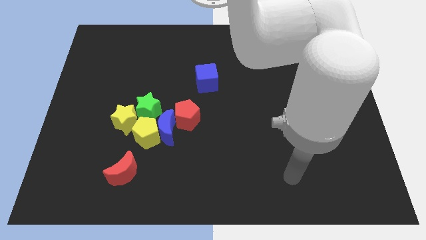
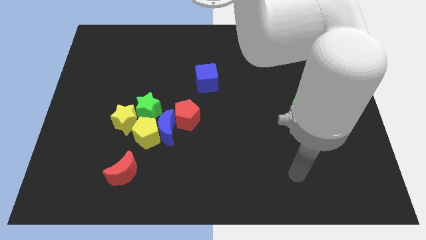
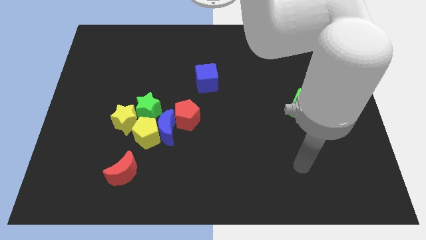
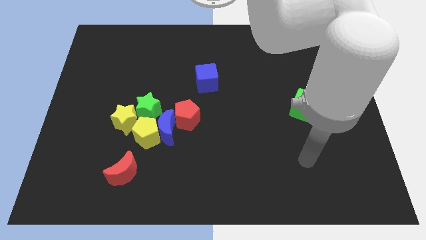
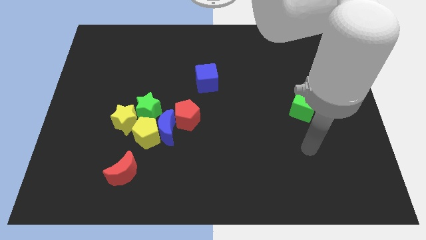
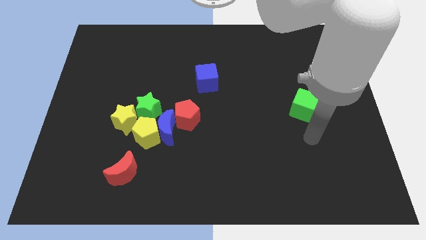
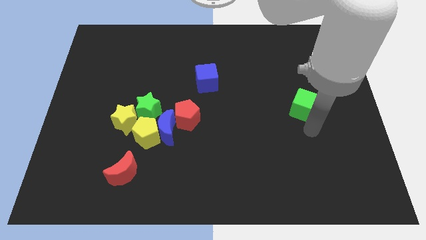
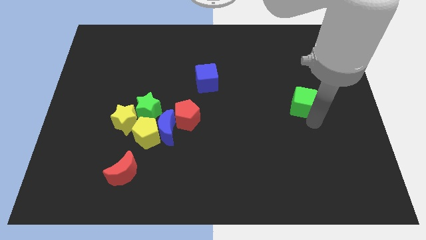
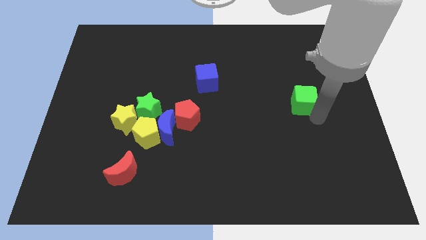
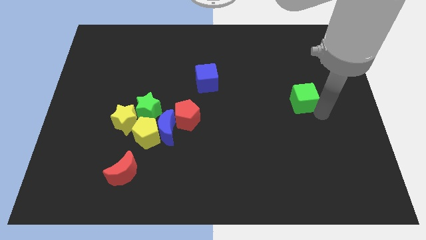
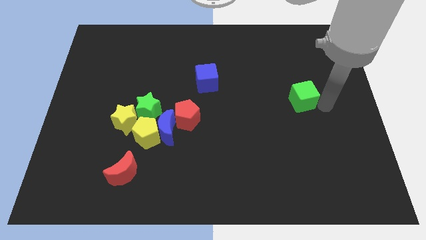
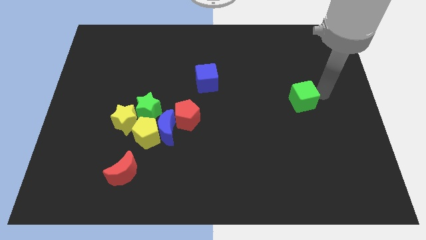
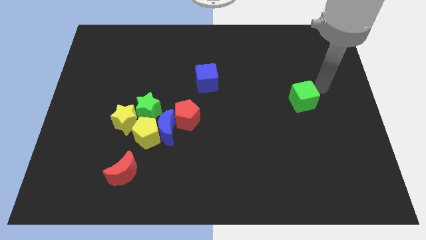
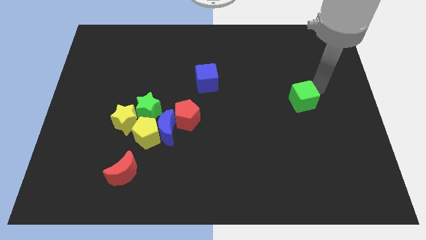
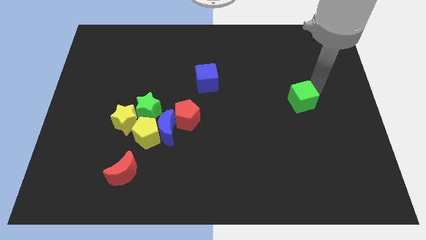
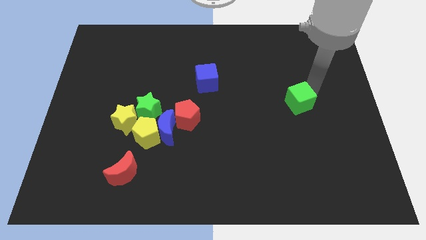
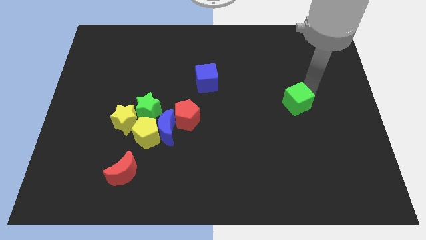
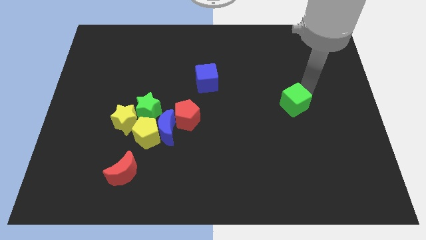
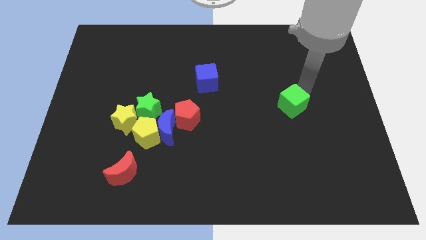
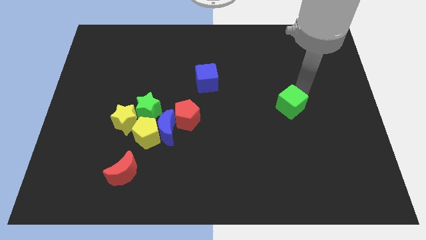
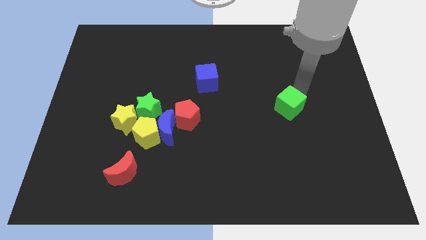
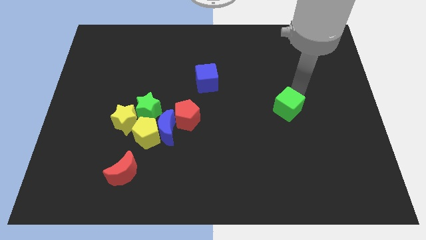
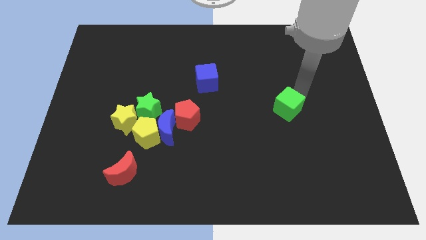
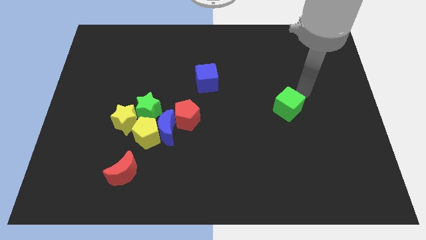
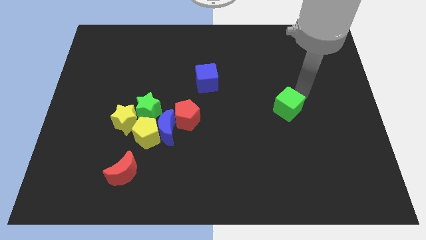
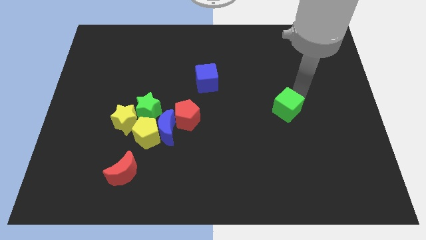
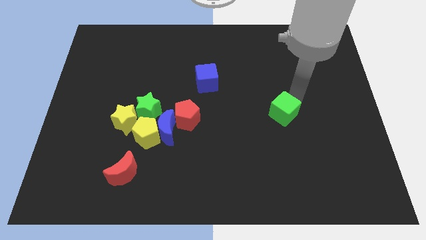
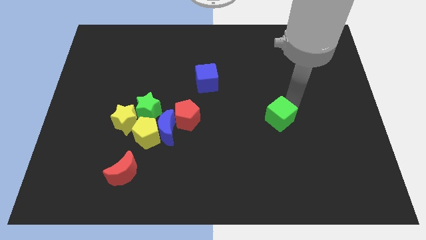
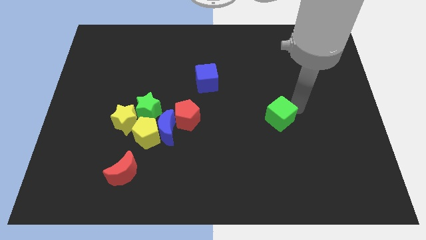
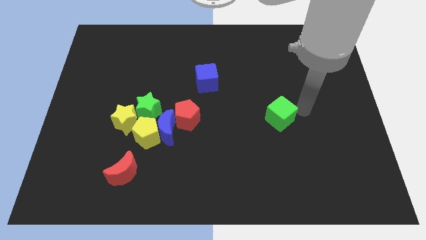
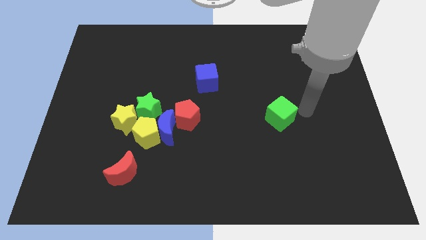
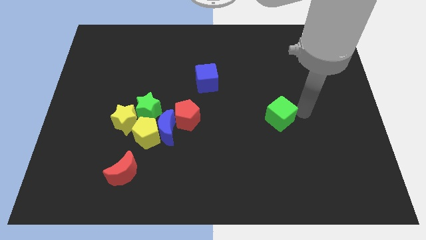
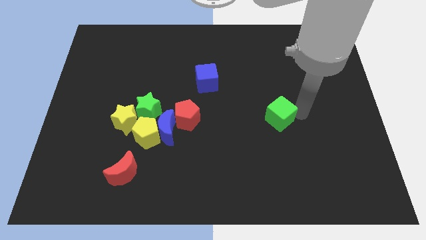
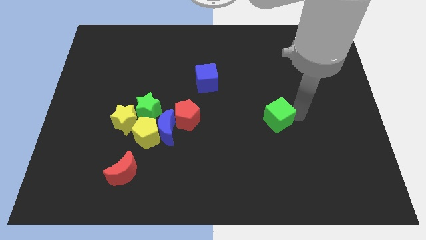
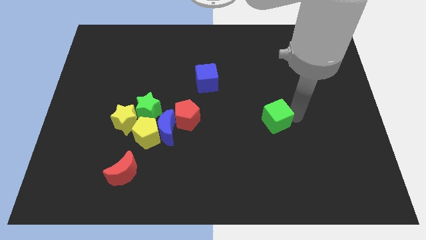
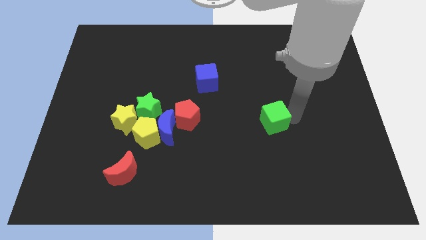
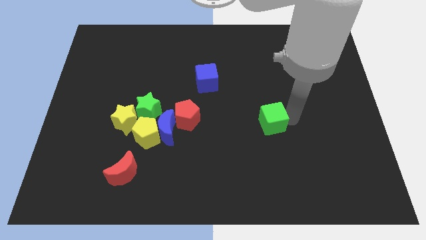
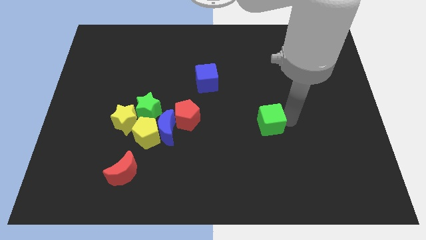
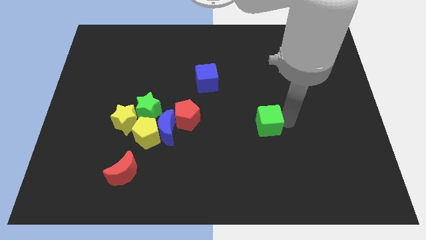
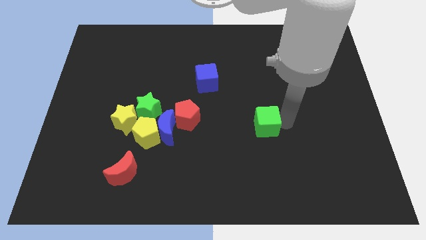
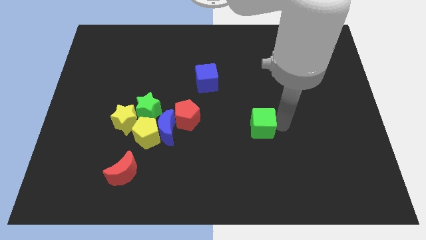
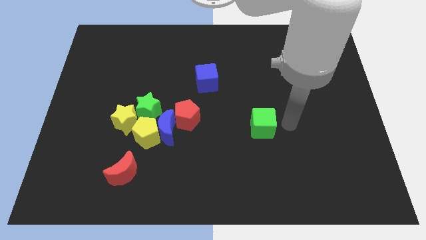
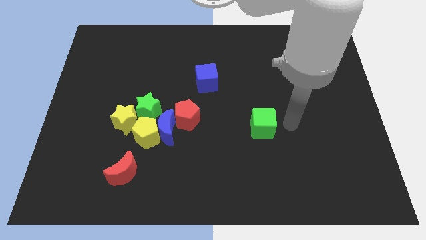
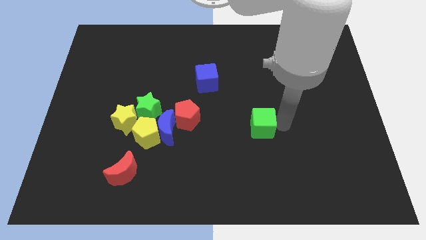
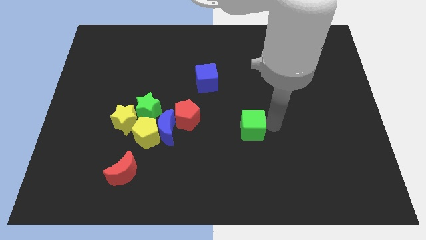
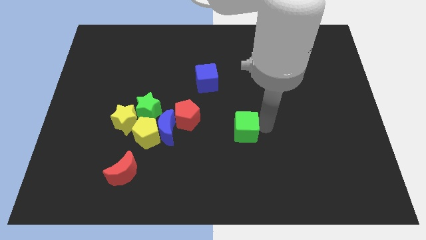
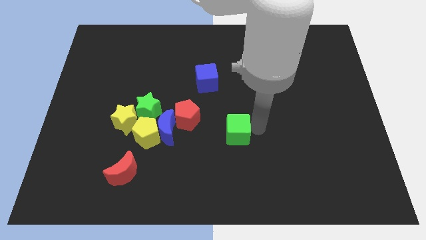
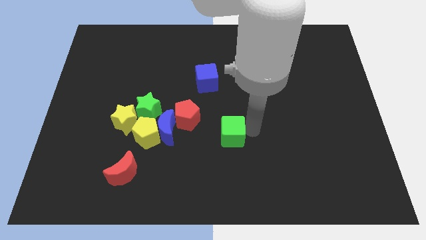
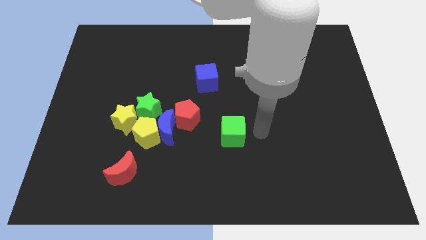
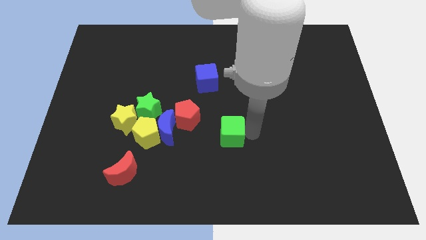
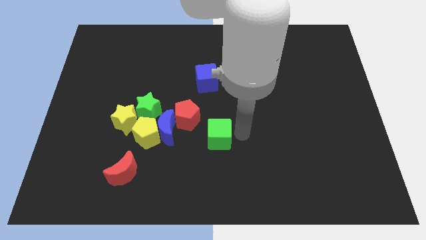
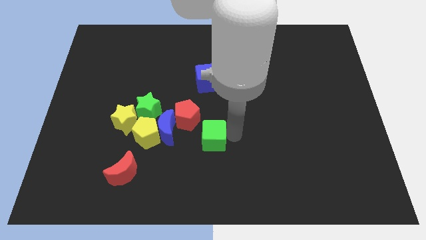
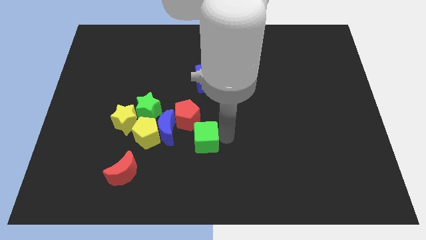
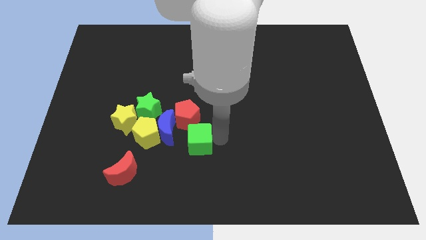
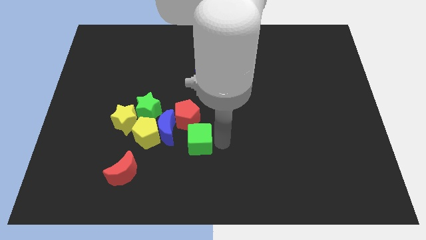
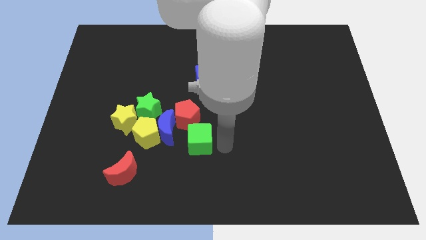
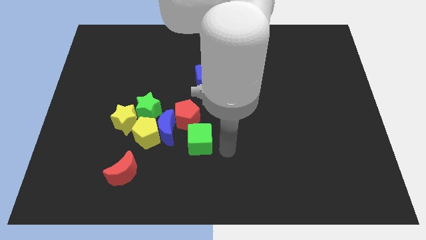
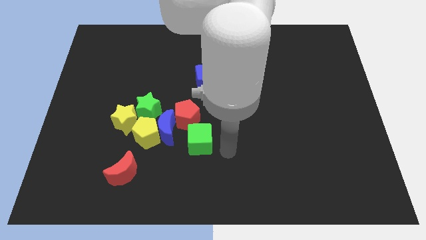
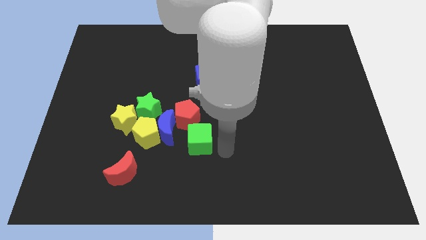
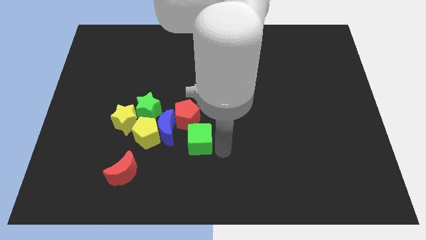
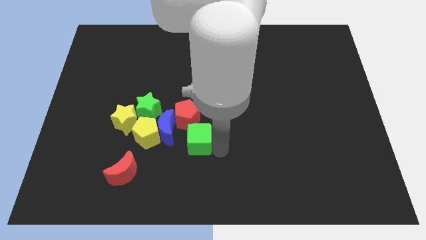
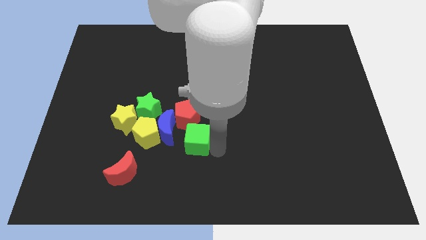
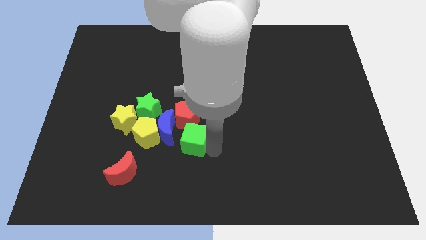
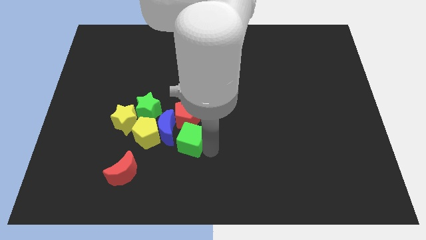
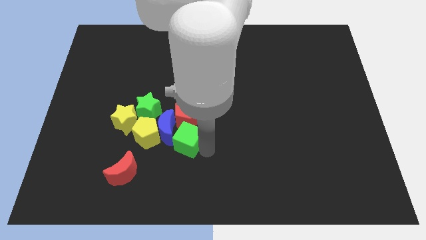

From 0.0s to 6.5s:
put the green cube next to the blue moon

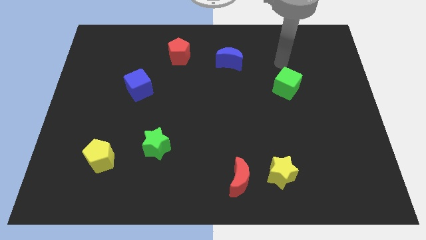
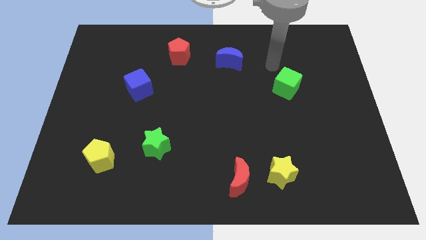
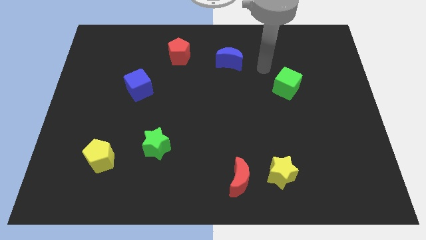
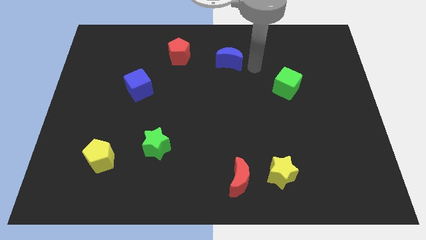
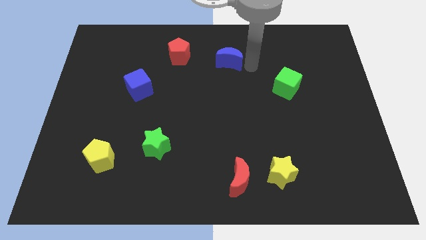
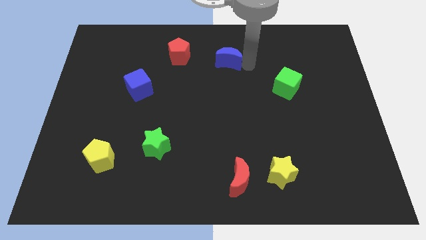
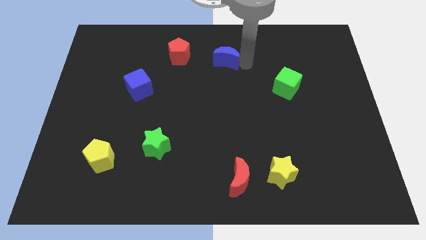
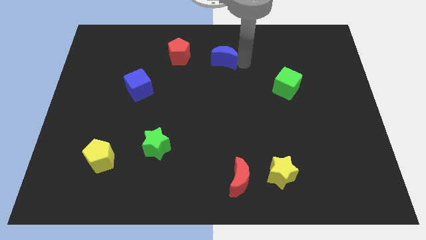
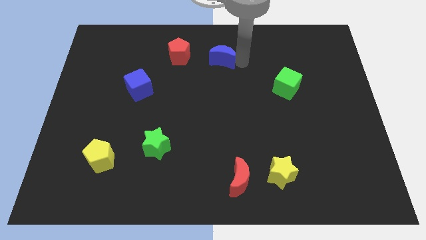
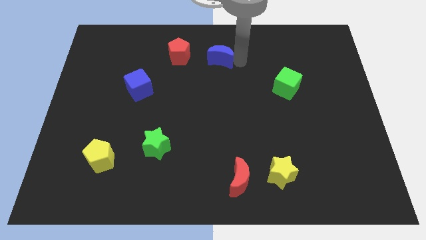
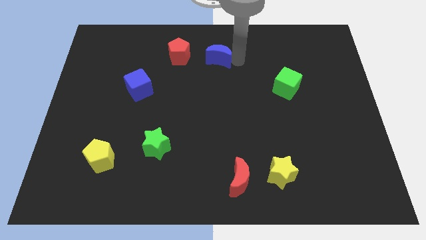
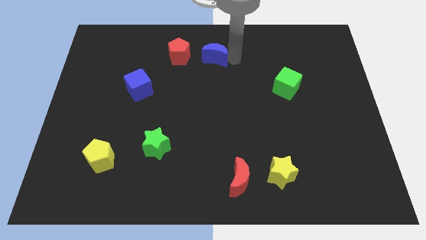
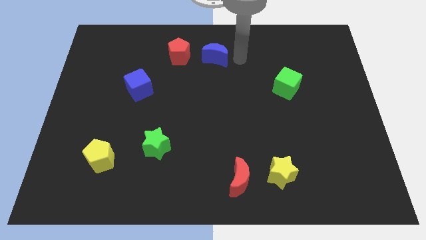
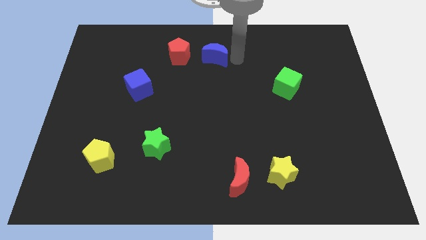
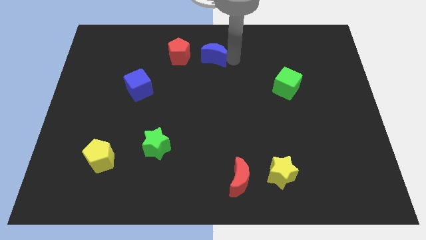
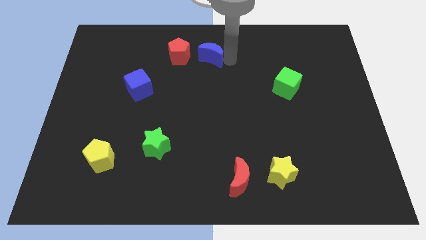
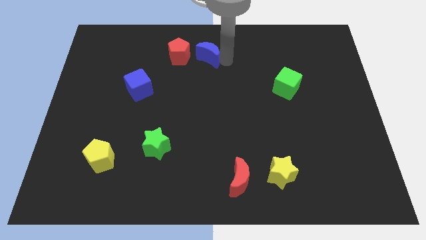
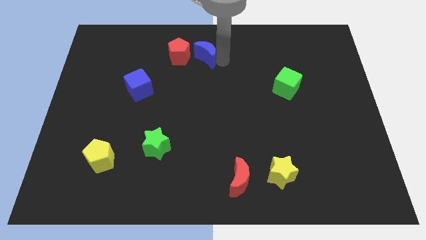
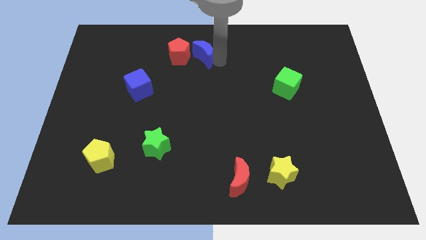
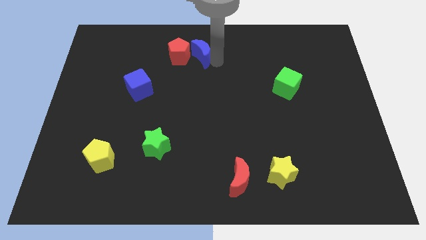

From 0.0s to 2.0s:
push the blue moon to the red pentagon
